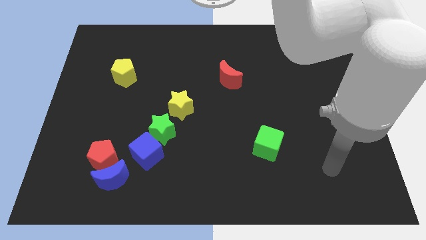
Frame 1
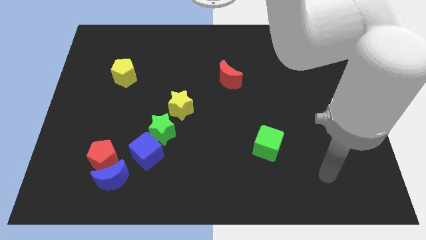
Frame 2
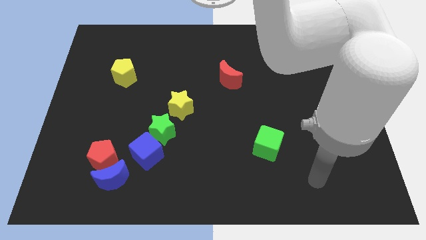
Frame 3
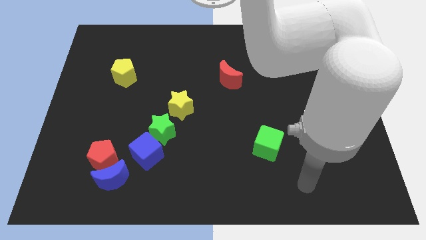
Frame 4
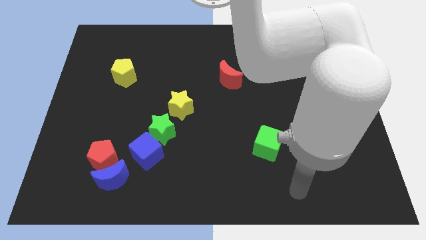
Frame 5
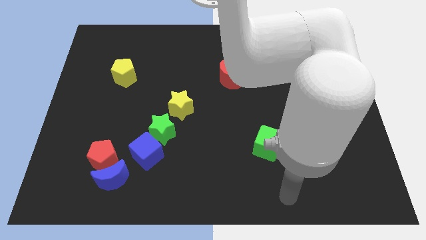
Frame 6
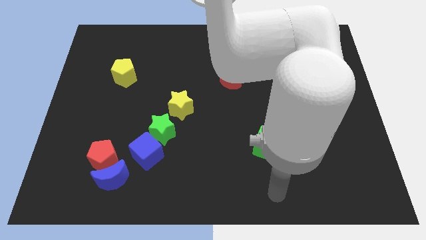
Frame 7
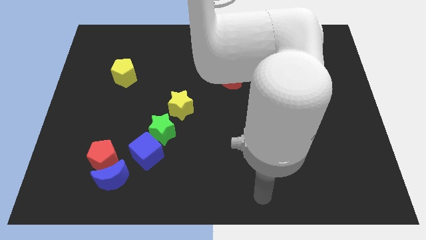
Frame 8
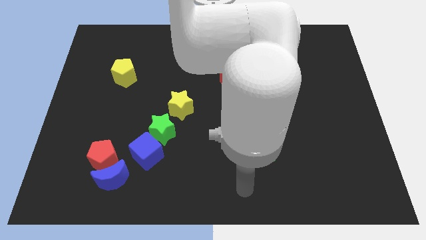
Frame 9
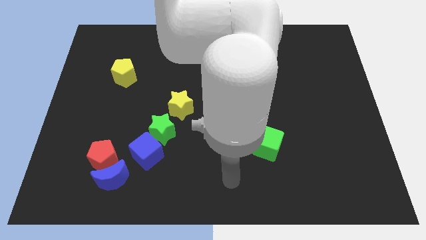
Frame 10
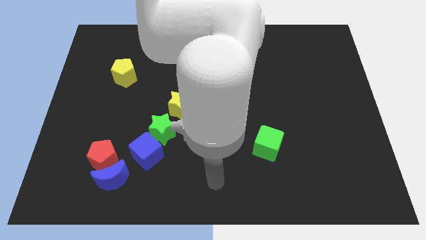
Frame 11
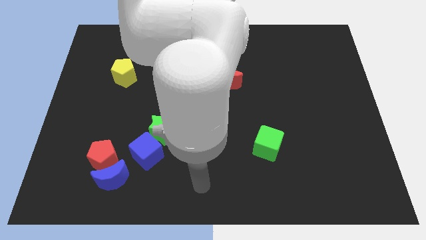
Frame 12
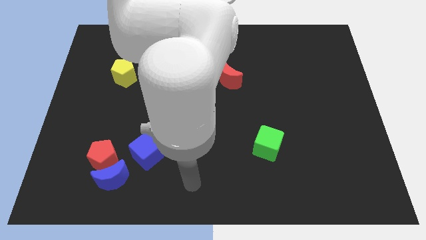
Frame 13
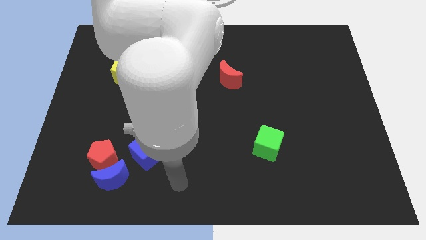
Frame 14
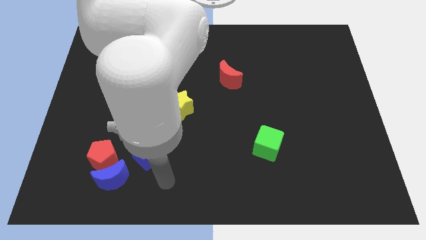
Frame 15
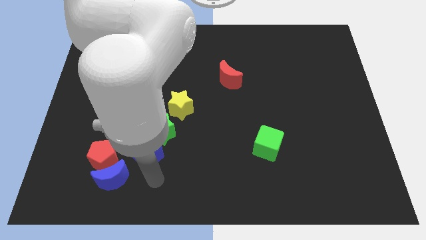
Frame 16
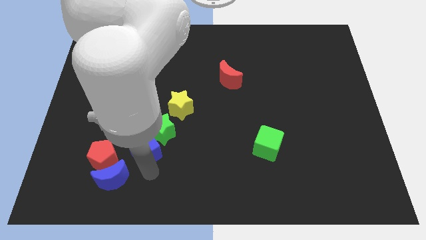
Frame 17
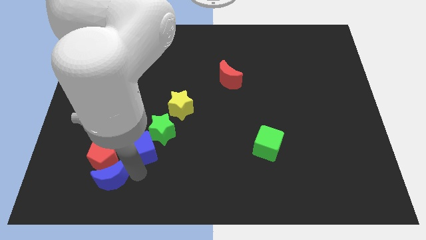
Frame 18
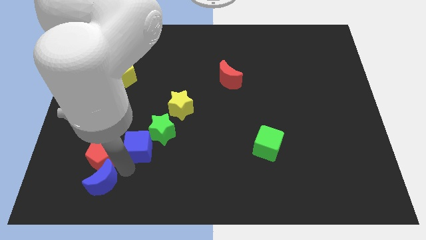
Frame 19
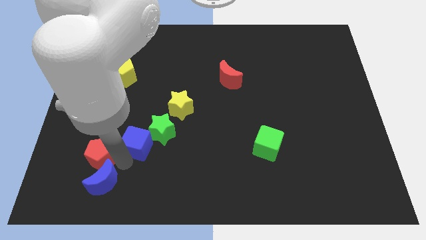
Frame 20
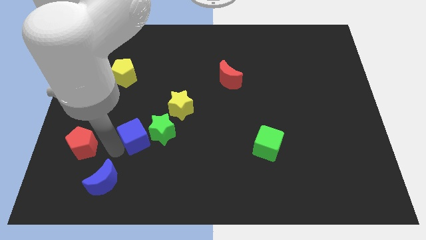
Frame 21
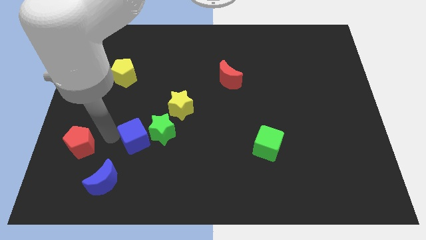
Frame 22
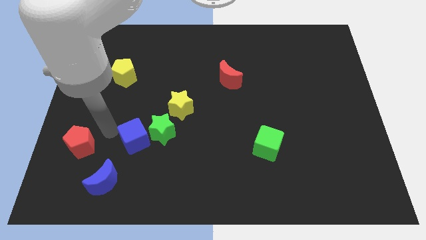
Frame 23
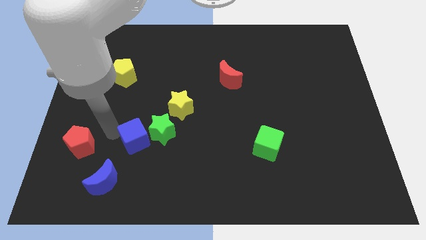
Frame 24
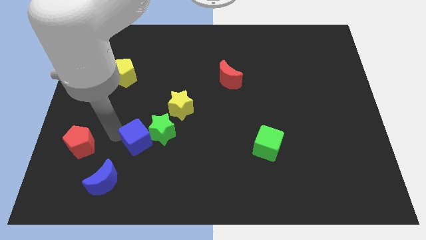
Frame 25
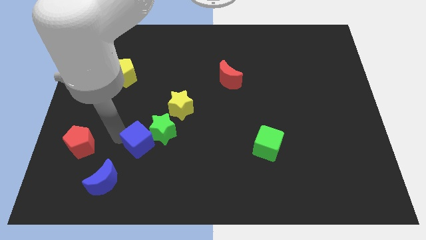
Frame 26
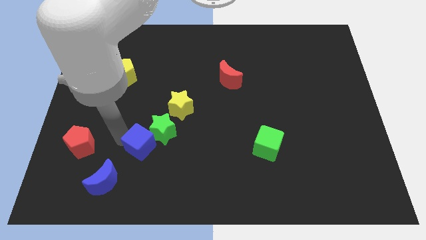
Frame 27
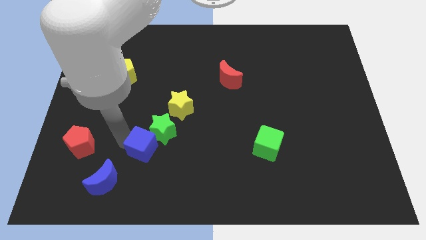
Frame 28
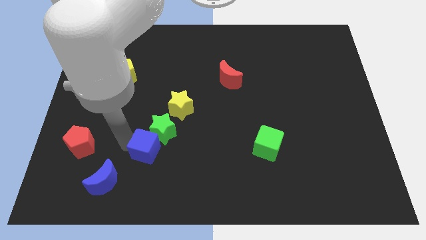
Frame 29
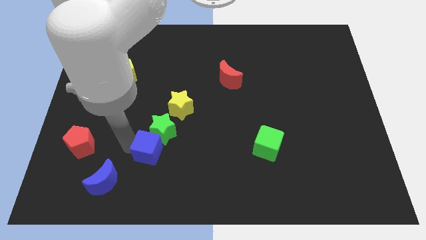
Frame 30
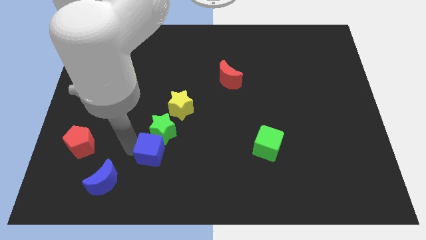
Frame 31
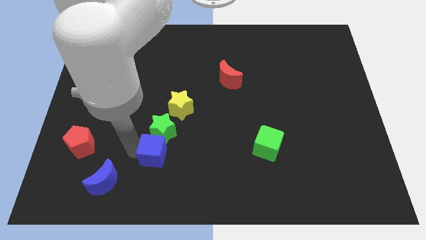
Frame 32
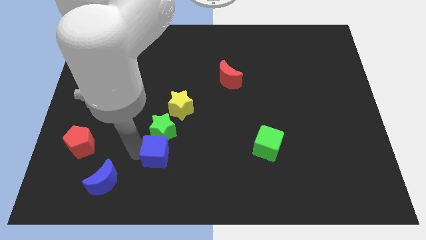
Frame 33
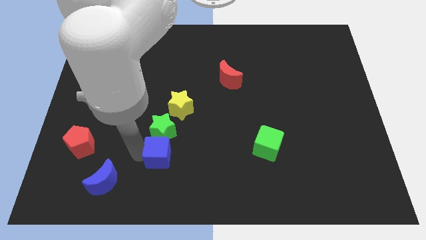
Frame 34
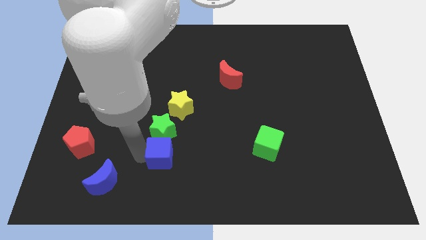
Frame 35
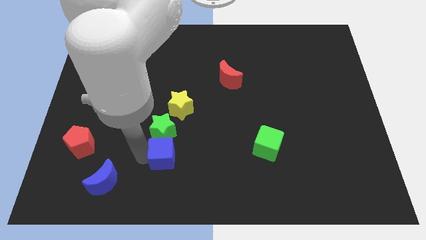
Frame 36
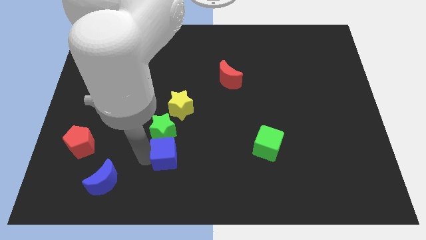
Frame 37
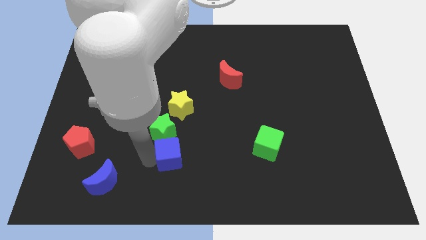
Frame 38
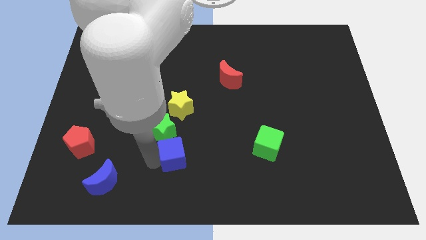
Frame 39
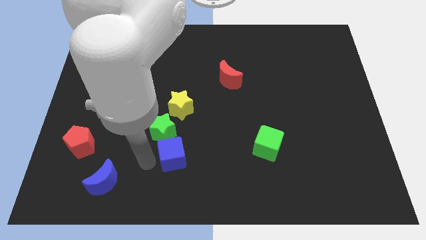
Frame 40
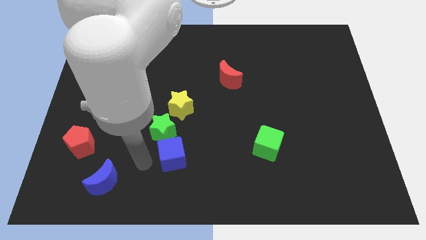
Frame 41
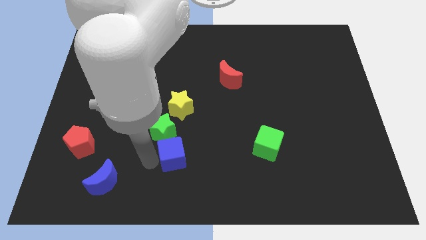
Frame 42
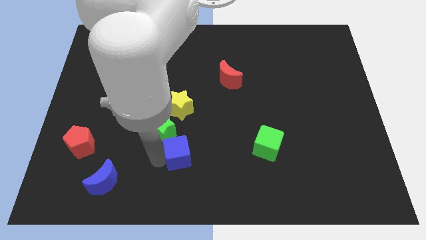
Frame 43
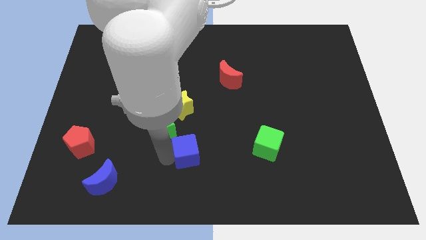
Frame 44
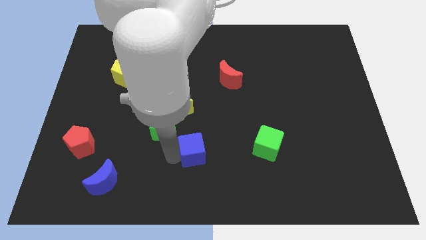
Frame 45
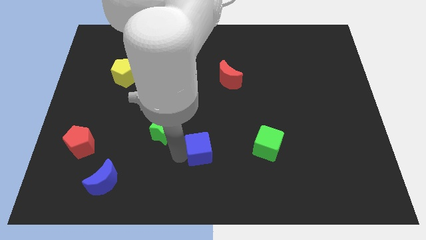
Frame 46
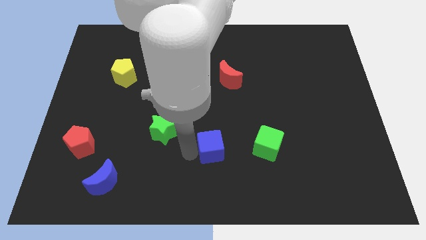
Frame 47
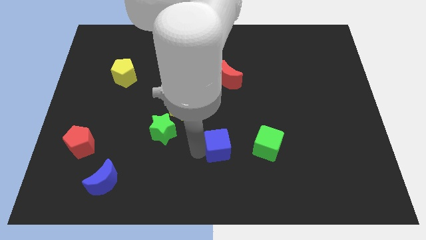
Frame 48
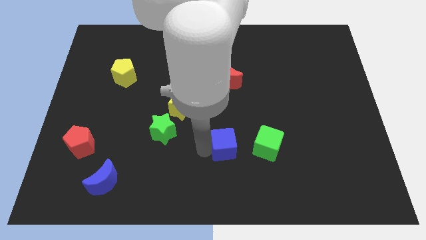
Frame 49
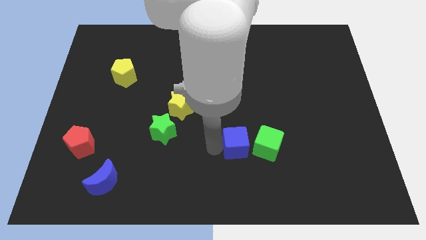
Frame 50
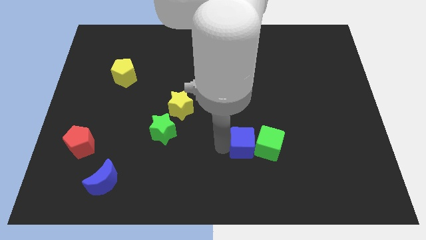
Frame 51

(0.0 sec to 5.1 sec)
move the blue cube next to the green cube

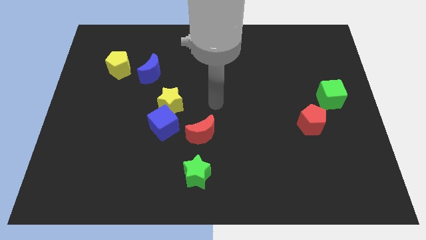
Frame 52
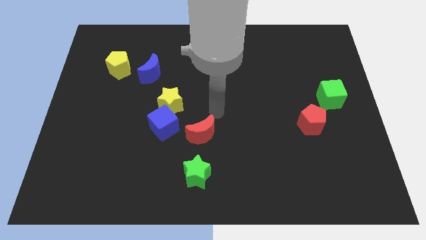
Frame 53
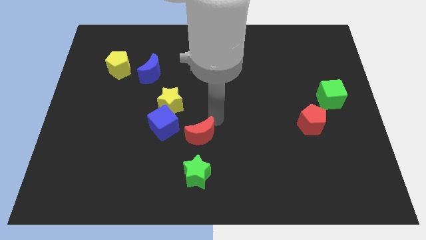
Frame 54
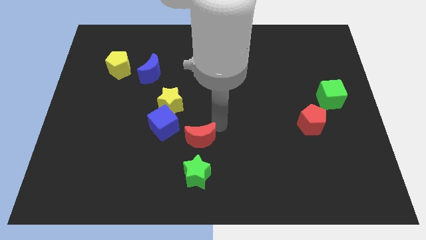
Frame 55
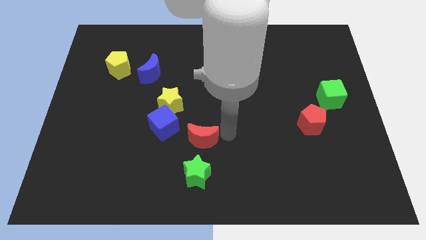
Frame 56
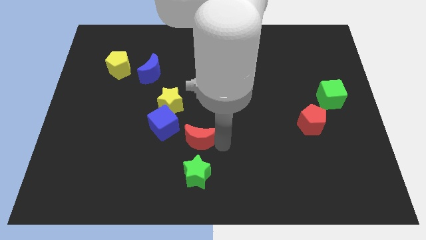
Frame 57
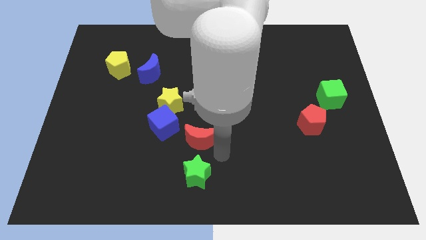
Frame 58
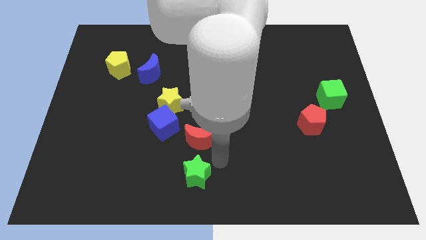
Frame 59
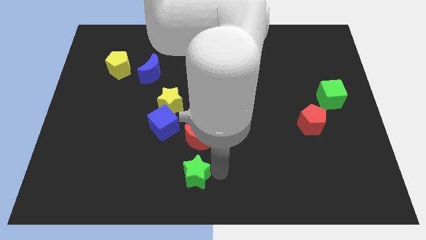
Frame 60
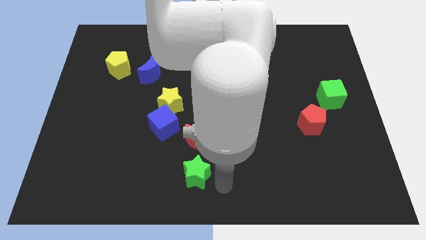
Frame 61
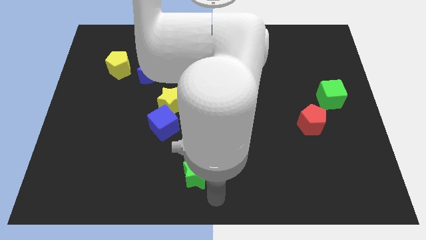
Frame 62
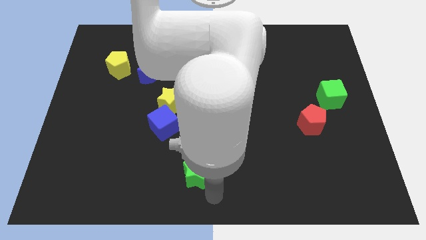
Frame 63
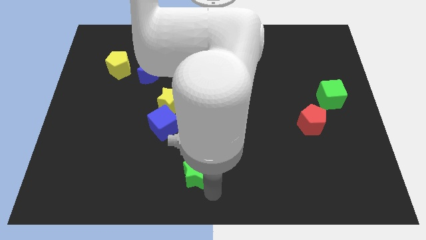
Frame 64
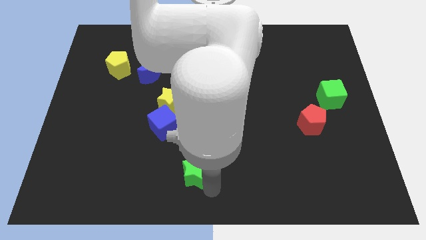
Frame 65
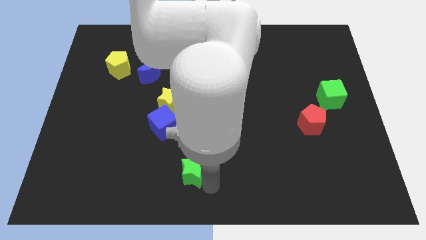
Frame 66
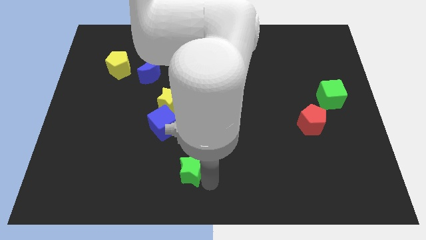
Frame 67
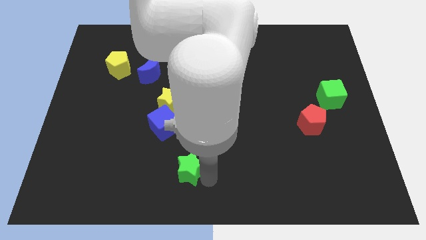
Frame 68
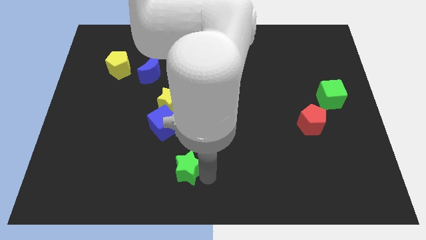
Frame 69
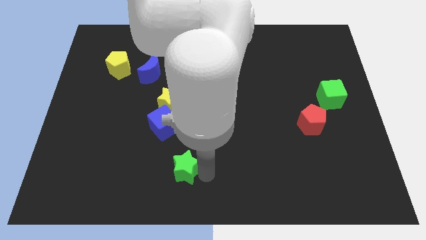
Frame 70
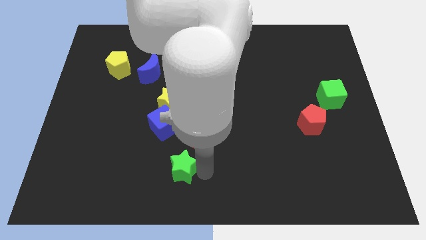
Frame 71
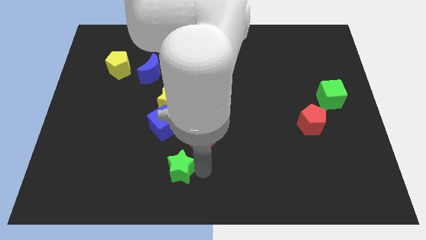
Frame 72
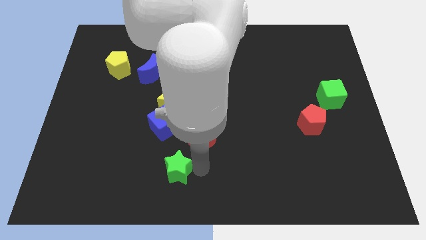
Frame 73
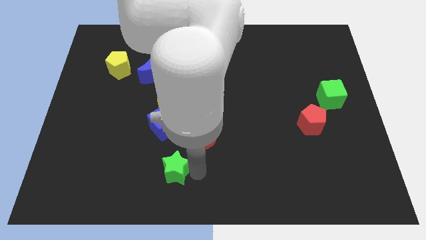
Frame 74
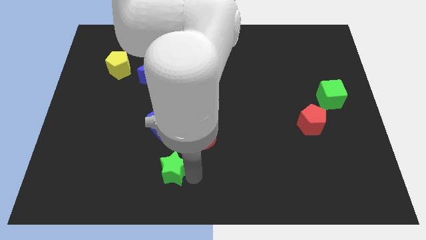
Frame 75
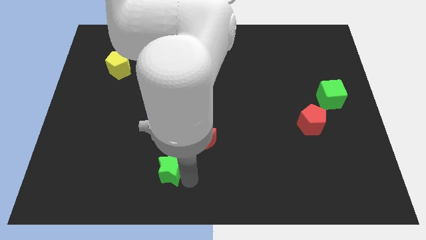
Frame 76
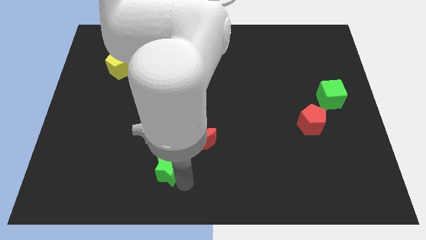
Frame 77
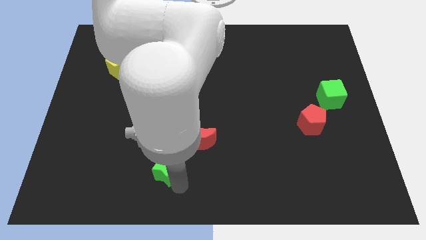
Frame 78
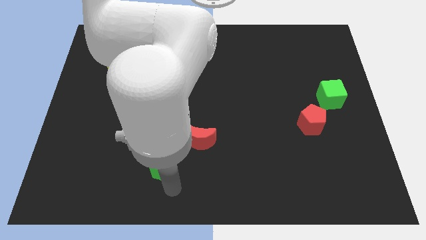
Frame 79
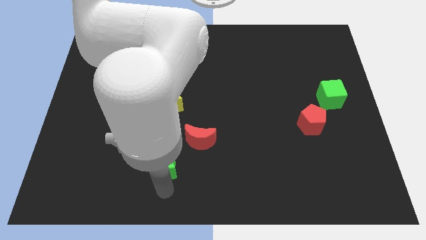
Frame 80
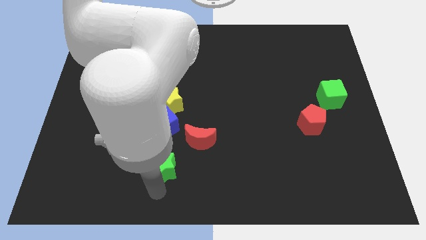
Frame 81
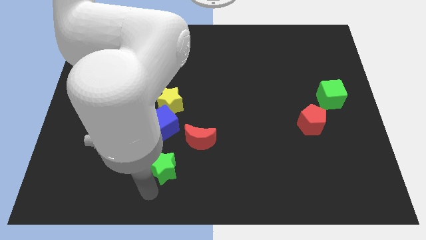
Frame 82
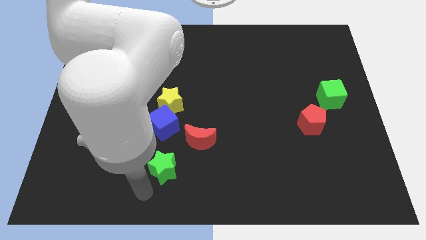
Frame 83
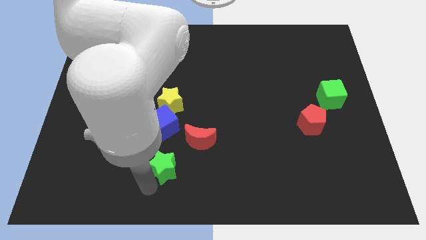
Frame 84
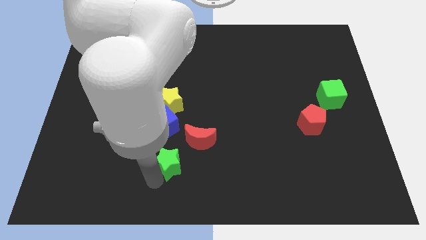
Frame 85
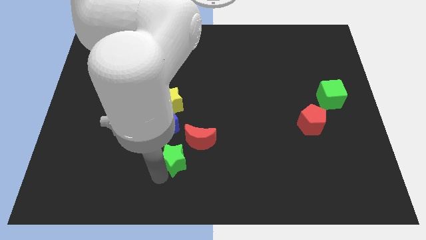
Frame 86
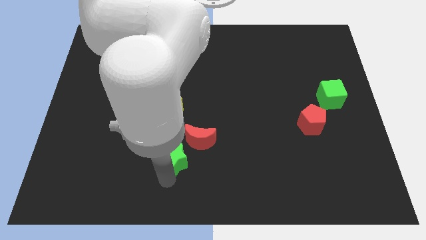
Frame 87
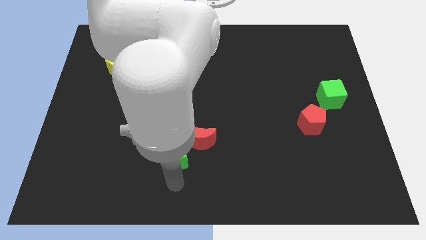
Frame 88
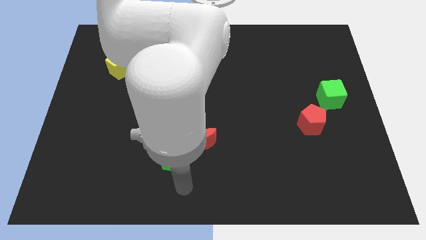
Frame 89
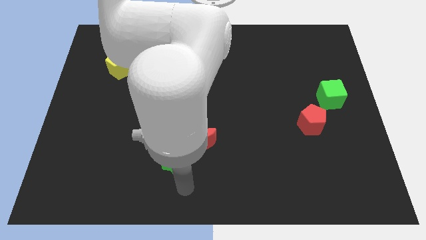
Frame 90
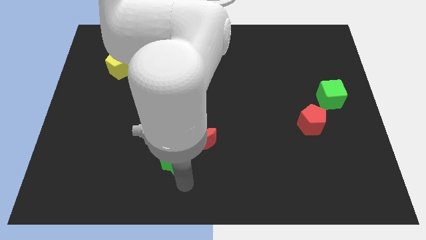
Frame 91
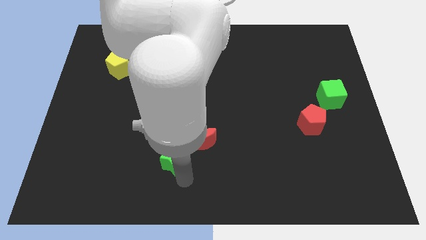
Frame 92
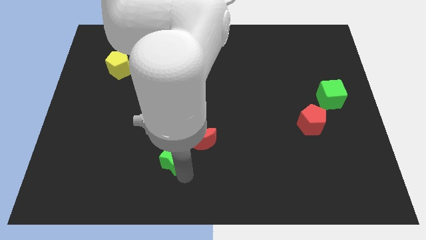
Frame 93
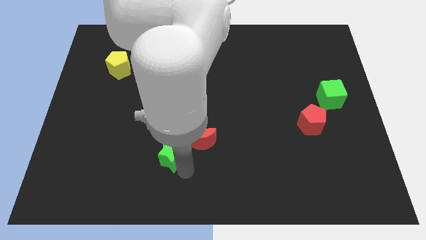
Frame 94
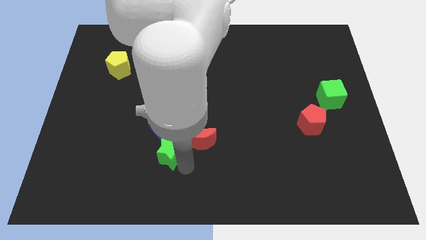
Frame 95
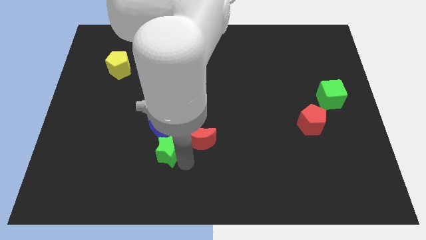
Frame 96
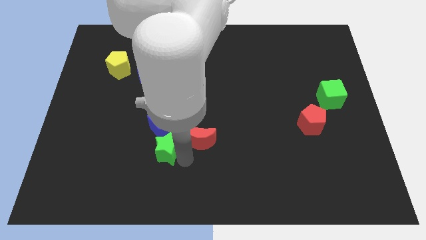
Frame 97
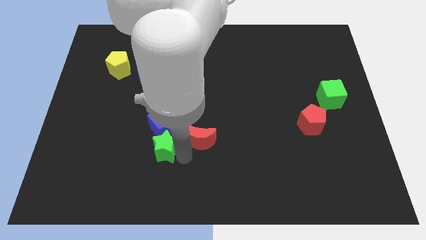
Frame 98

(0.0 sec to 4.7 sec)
push the green star next to the blue cube
